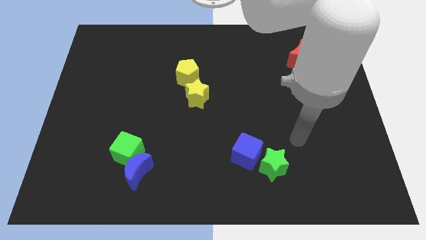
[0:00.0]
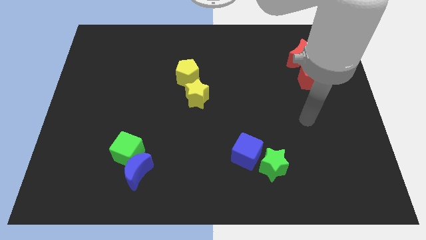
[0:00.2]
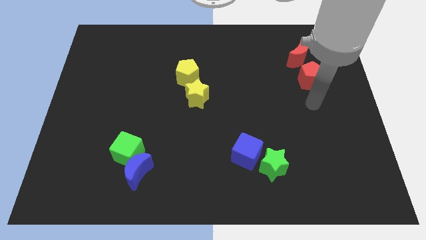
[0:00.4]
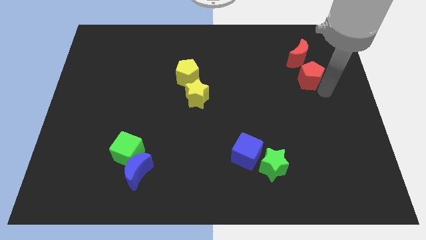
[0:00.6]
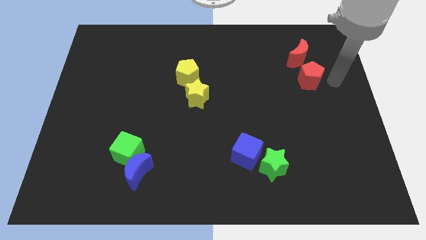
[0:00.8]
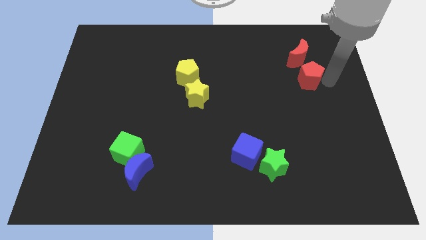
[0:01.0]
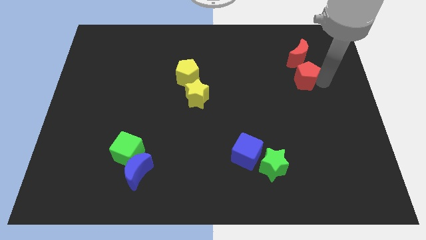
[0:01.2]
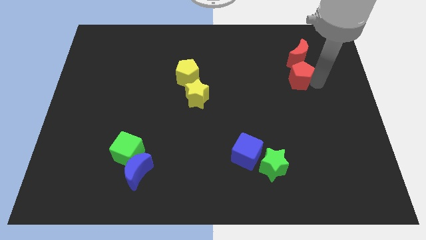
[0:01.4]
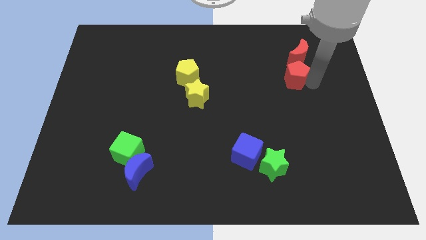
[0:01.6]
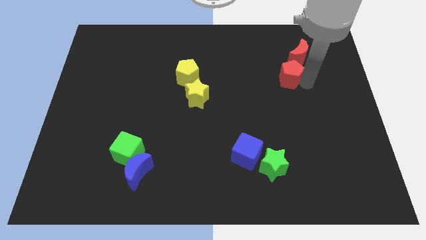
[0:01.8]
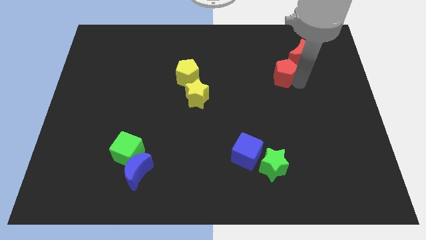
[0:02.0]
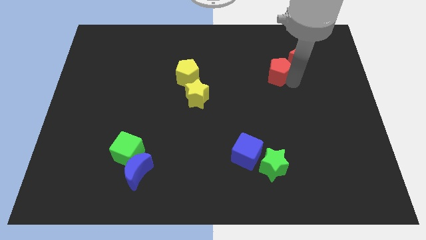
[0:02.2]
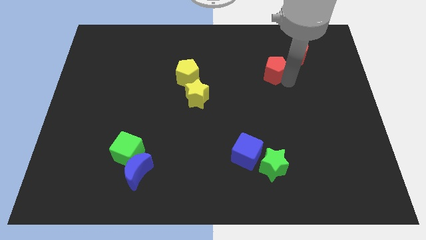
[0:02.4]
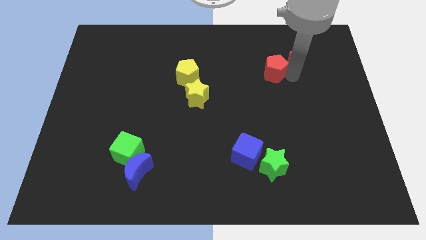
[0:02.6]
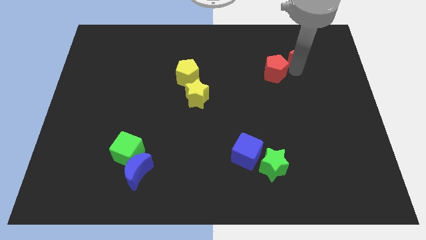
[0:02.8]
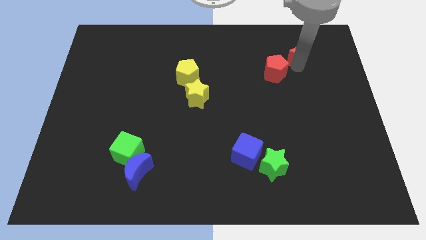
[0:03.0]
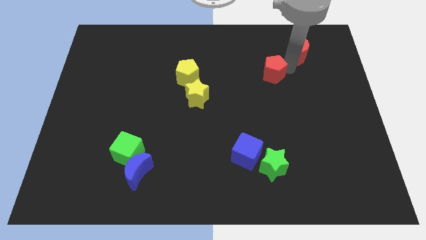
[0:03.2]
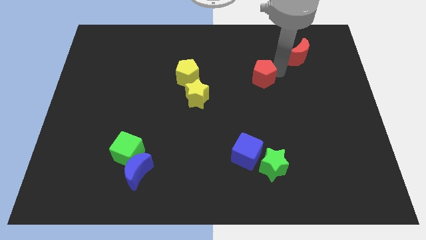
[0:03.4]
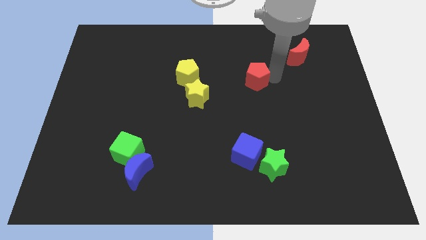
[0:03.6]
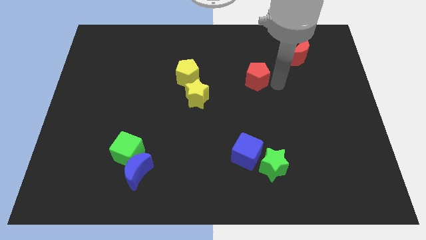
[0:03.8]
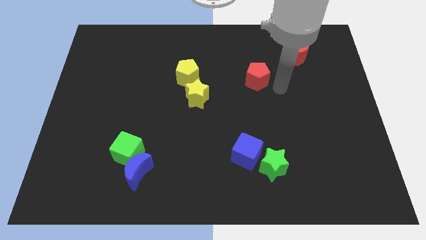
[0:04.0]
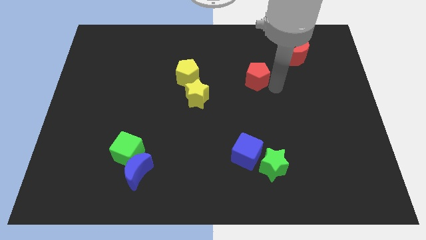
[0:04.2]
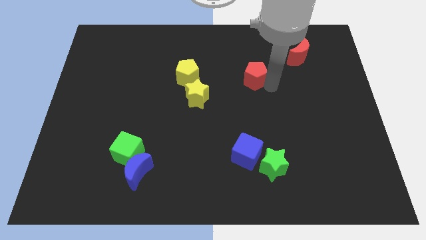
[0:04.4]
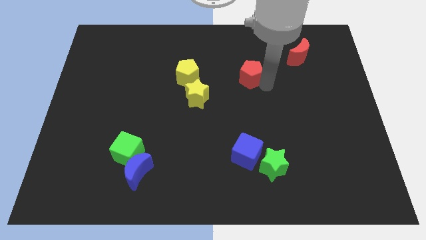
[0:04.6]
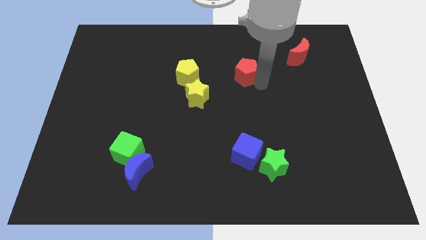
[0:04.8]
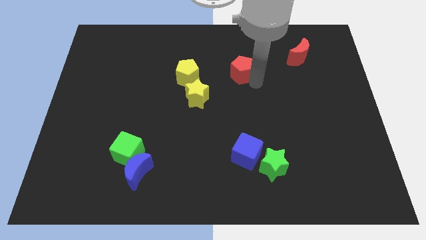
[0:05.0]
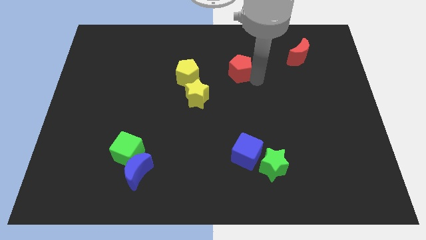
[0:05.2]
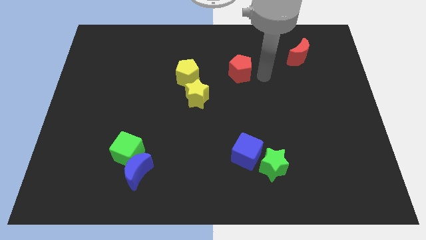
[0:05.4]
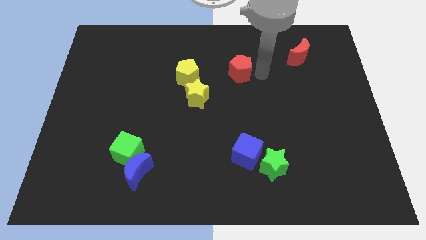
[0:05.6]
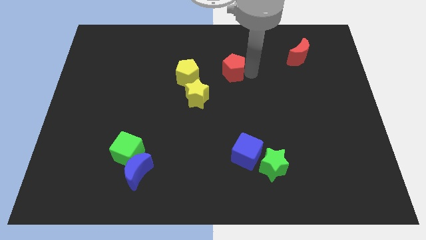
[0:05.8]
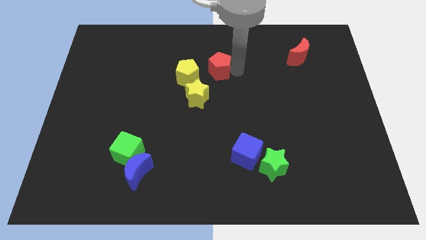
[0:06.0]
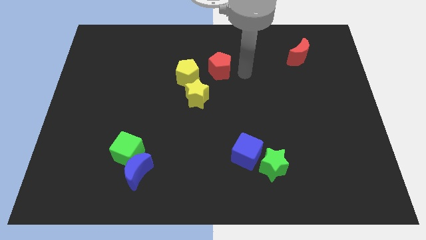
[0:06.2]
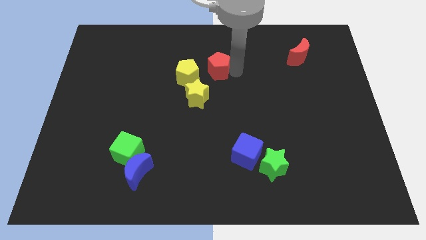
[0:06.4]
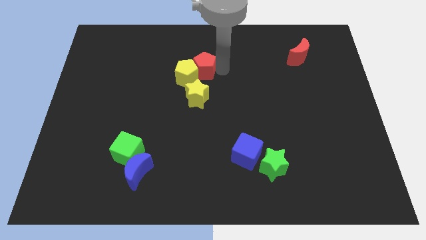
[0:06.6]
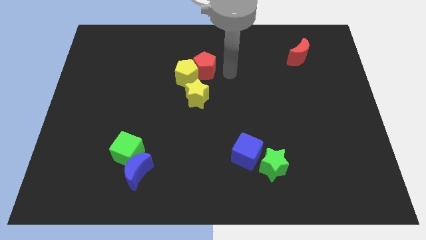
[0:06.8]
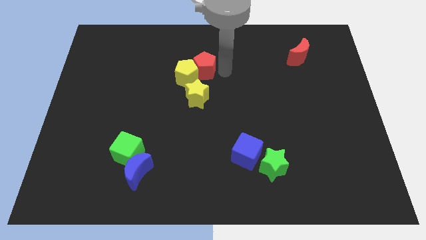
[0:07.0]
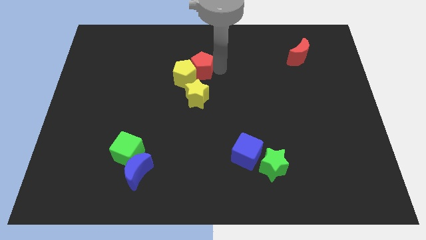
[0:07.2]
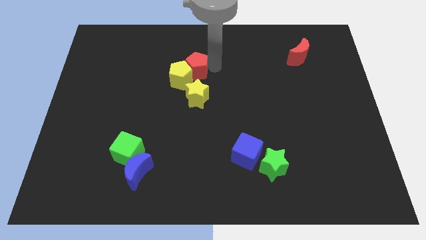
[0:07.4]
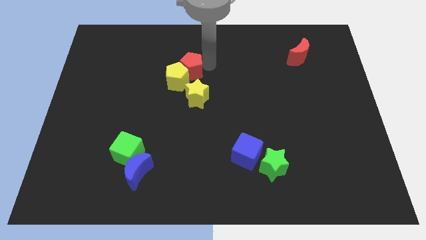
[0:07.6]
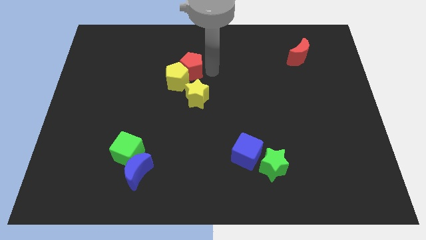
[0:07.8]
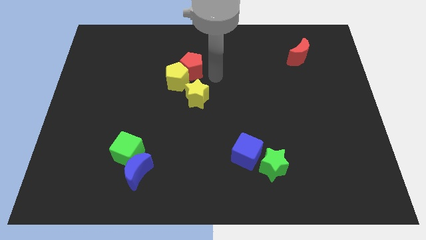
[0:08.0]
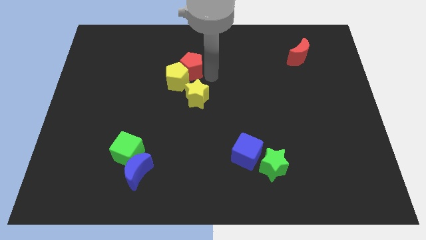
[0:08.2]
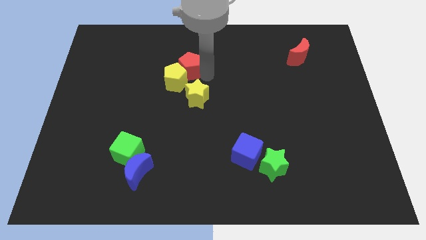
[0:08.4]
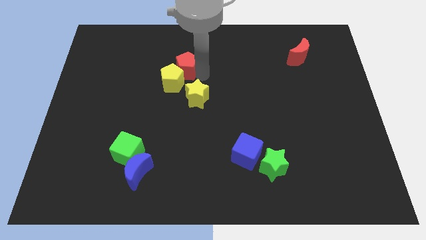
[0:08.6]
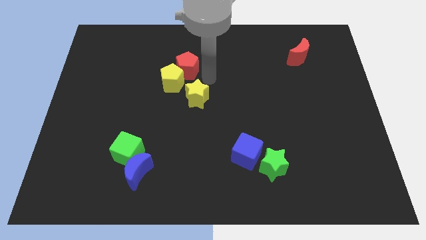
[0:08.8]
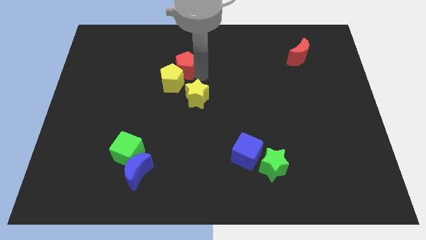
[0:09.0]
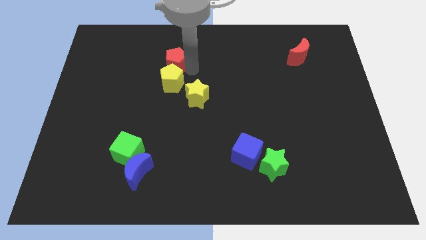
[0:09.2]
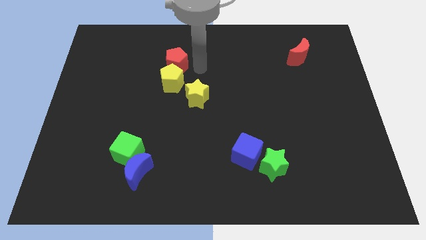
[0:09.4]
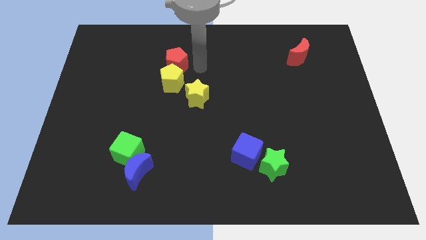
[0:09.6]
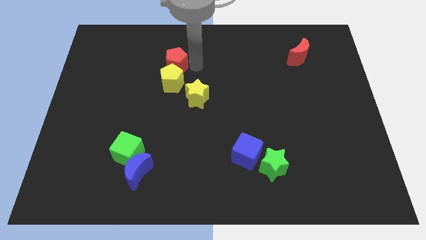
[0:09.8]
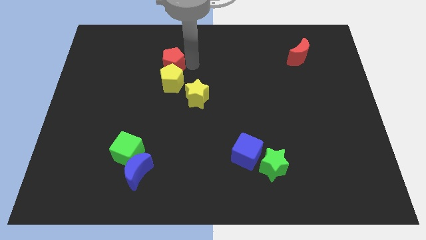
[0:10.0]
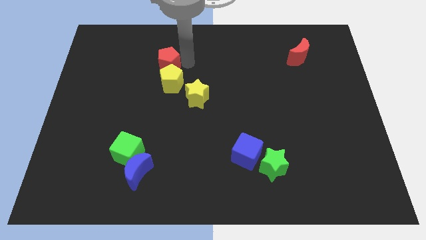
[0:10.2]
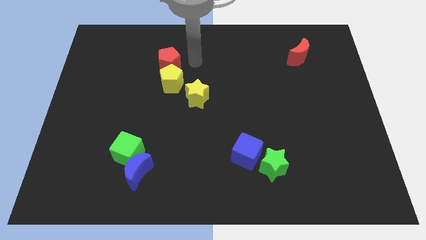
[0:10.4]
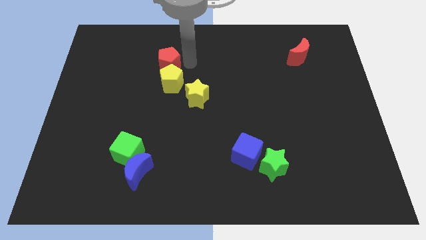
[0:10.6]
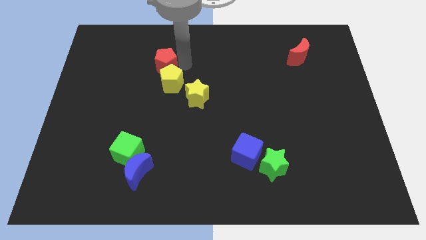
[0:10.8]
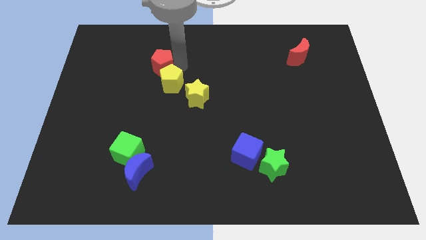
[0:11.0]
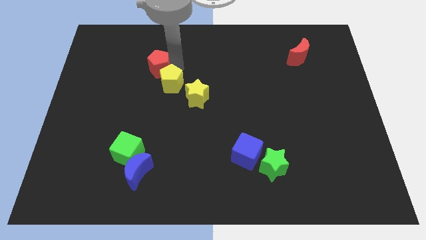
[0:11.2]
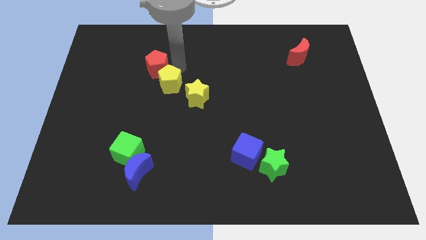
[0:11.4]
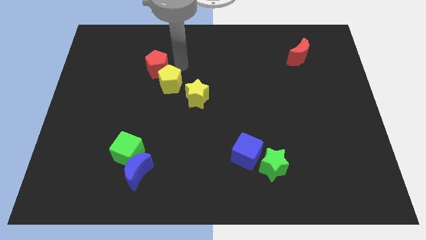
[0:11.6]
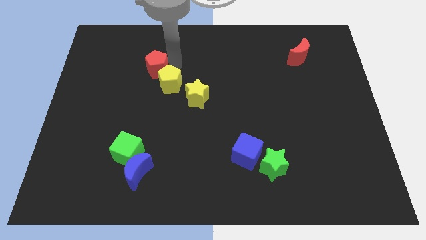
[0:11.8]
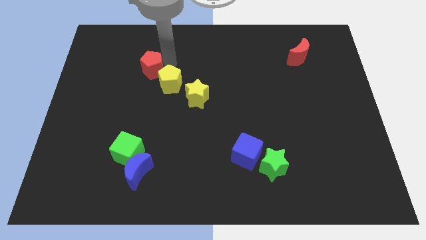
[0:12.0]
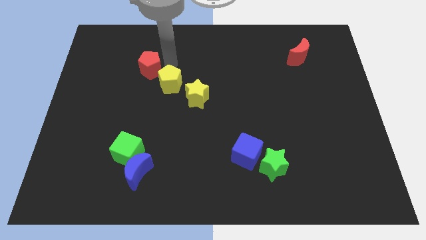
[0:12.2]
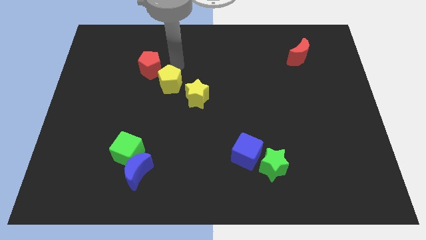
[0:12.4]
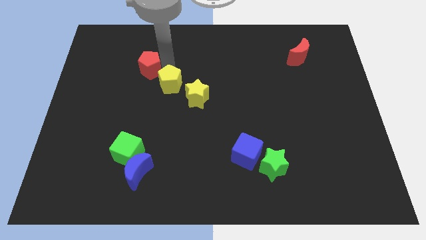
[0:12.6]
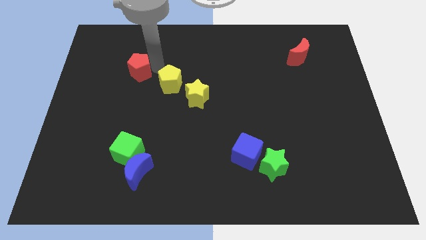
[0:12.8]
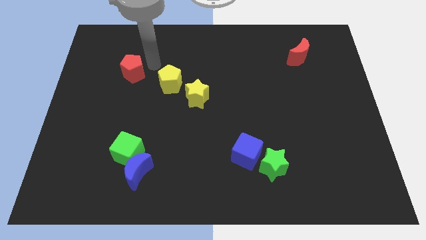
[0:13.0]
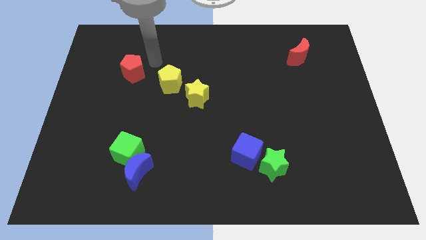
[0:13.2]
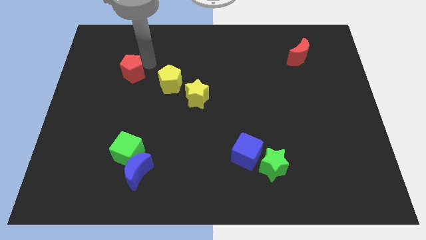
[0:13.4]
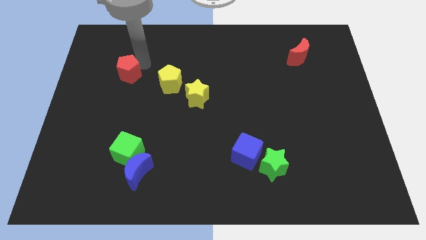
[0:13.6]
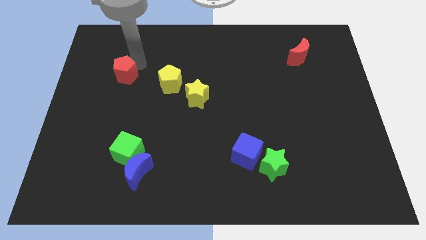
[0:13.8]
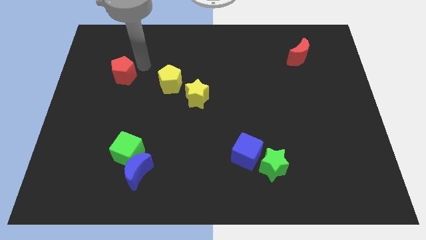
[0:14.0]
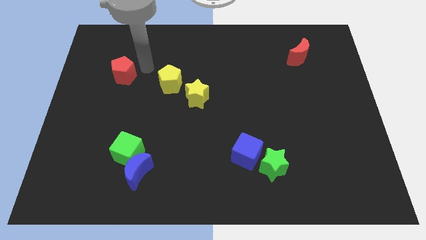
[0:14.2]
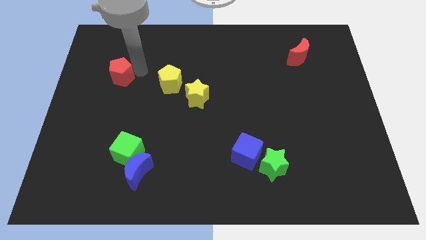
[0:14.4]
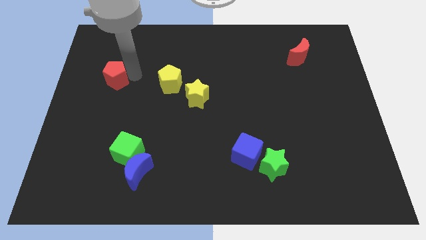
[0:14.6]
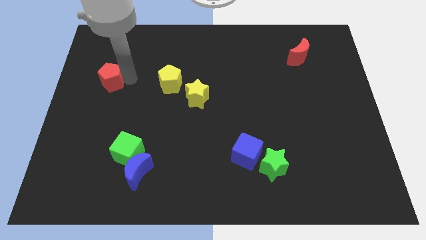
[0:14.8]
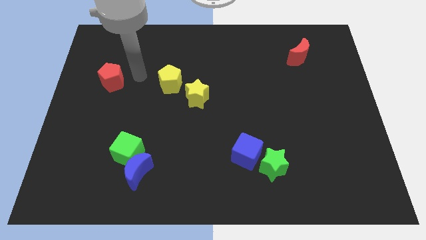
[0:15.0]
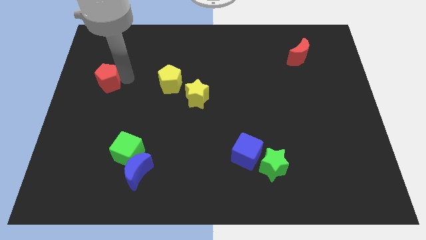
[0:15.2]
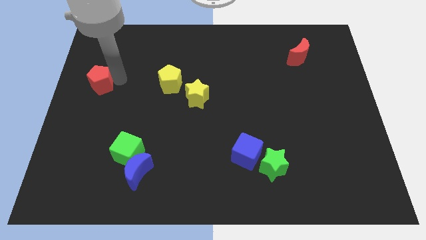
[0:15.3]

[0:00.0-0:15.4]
put the red pentagon to the center left
